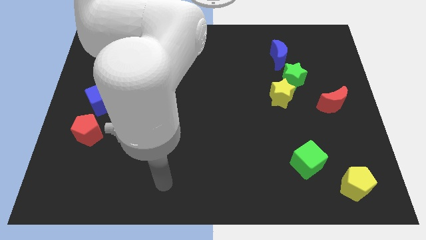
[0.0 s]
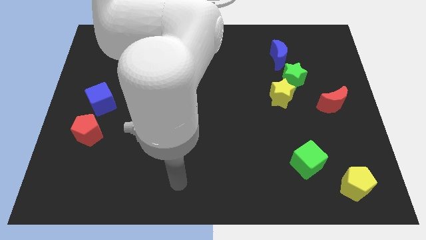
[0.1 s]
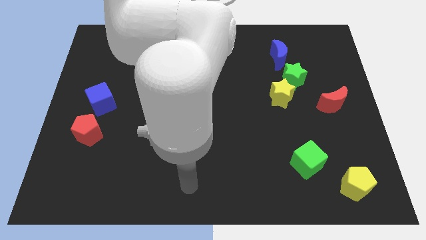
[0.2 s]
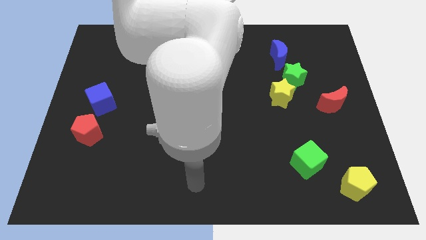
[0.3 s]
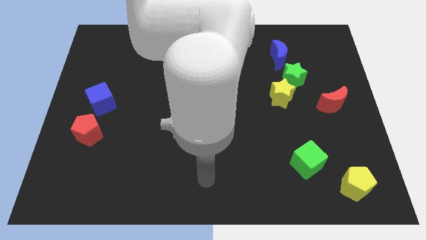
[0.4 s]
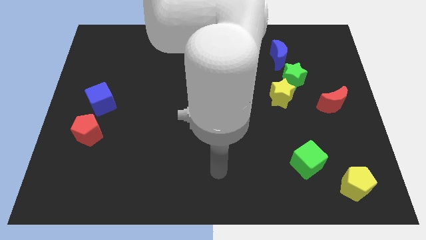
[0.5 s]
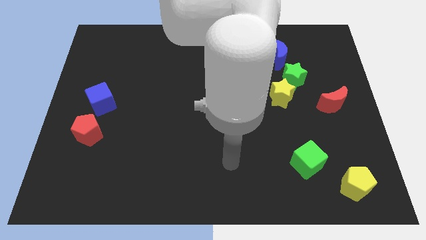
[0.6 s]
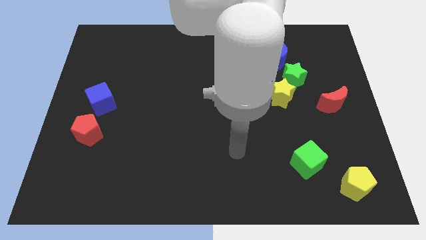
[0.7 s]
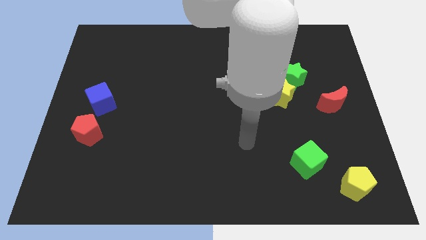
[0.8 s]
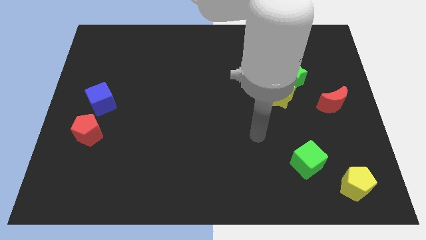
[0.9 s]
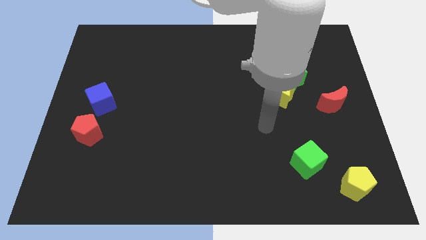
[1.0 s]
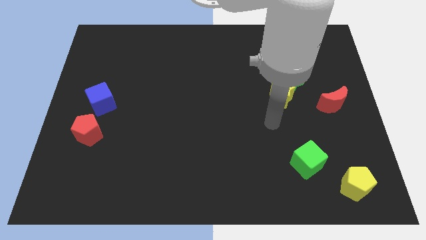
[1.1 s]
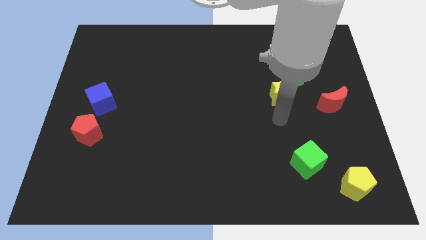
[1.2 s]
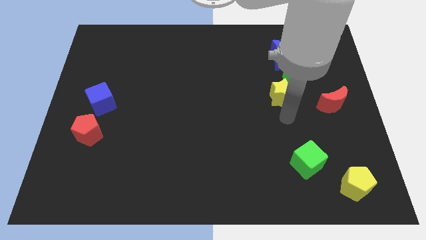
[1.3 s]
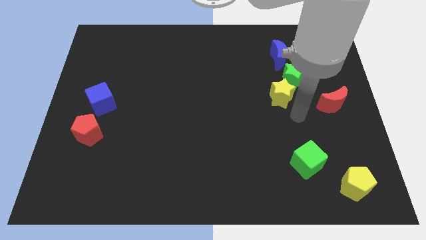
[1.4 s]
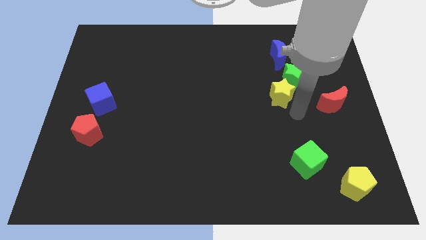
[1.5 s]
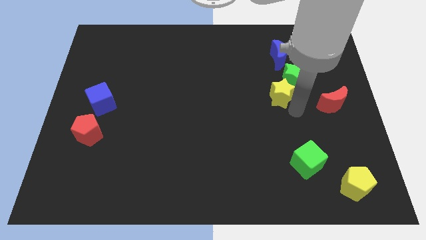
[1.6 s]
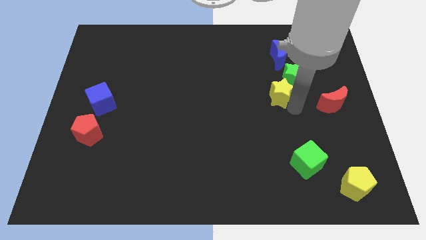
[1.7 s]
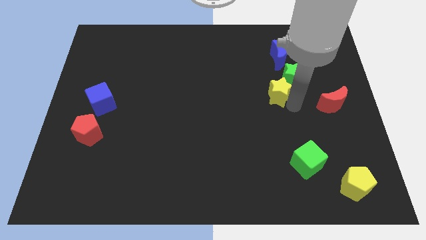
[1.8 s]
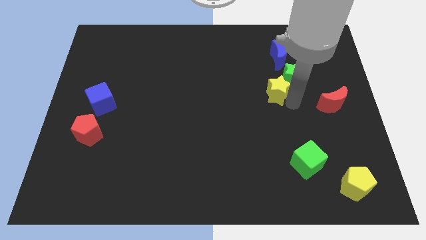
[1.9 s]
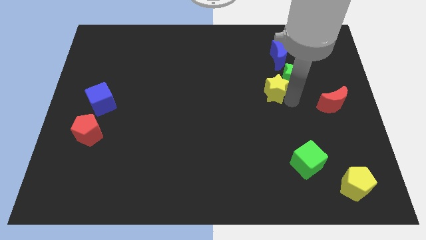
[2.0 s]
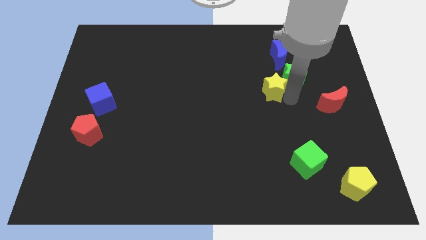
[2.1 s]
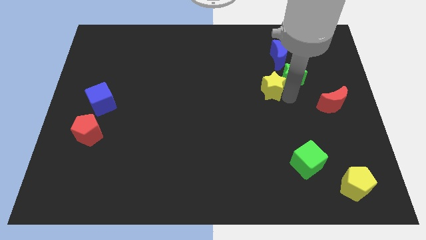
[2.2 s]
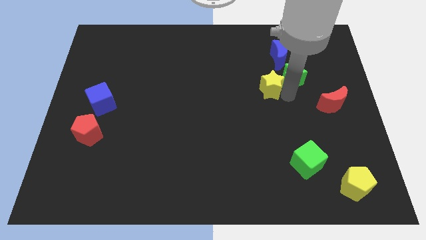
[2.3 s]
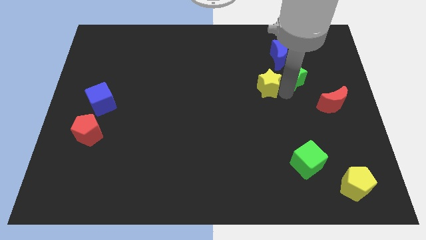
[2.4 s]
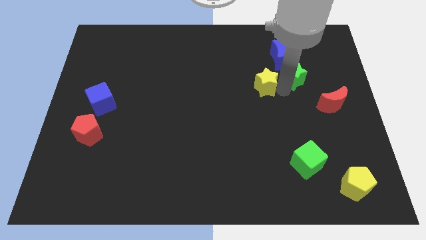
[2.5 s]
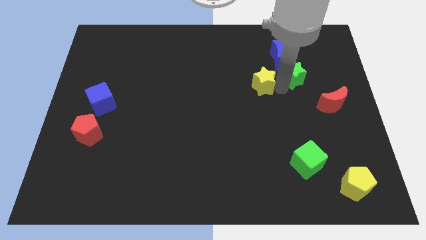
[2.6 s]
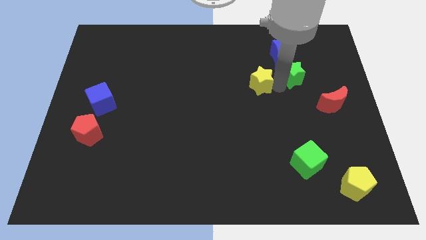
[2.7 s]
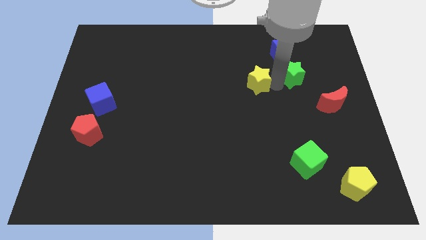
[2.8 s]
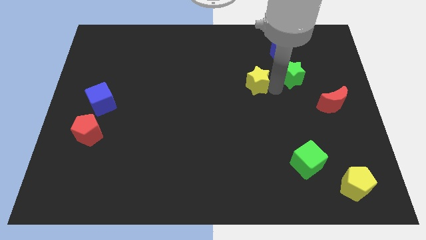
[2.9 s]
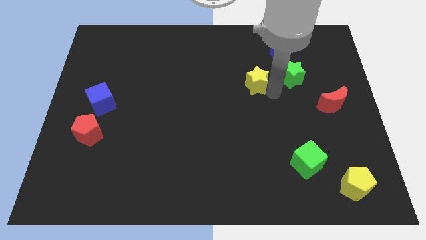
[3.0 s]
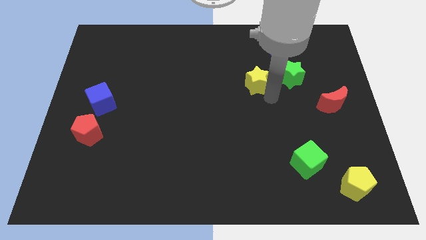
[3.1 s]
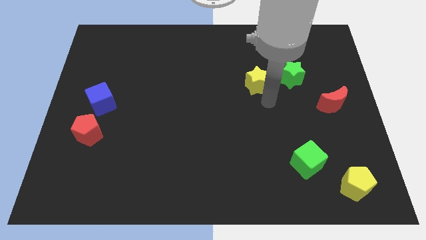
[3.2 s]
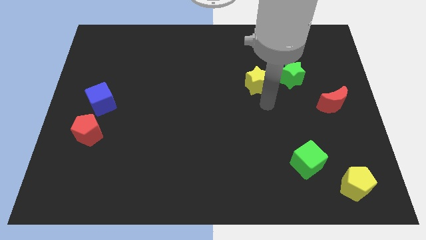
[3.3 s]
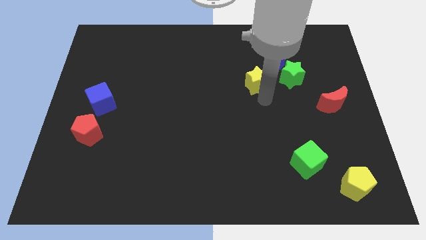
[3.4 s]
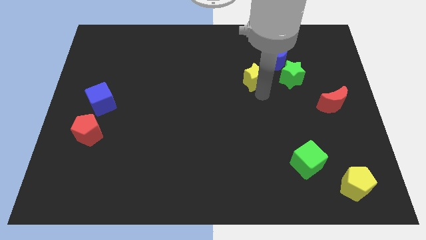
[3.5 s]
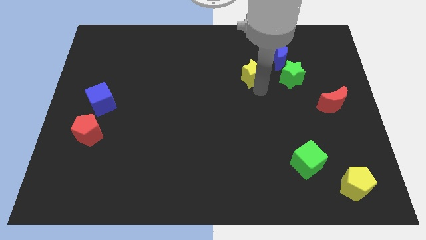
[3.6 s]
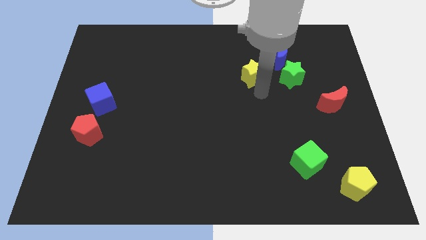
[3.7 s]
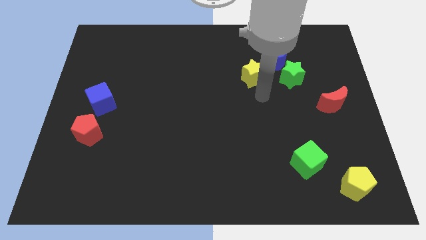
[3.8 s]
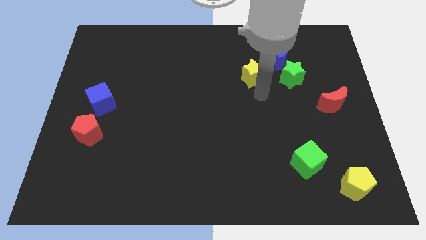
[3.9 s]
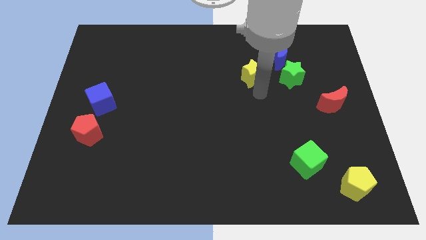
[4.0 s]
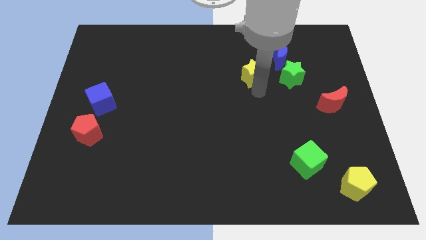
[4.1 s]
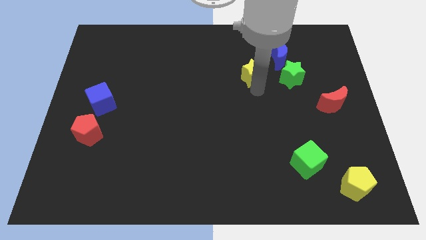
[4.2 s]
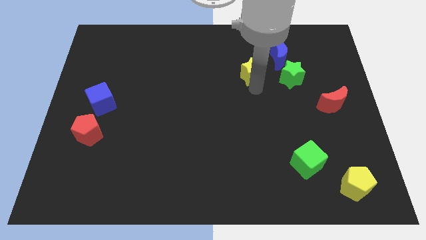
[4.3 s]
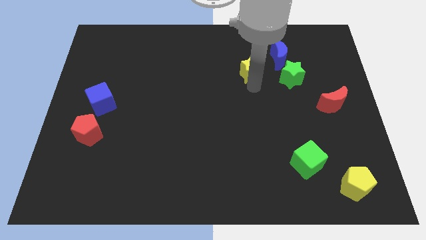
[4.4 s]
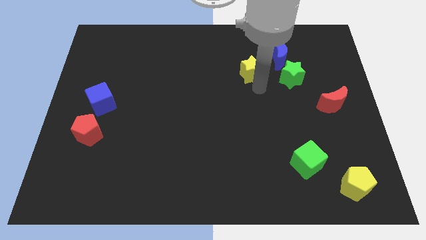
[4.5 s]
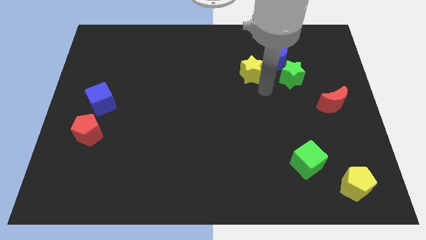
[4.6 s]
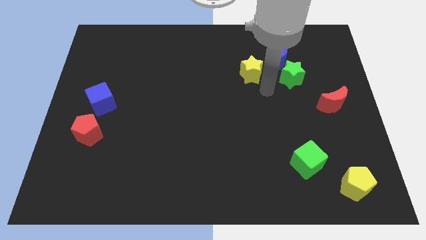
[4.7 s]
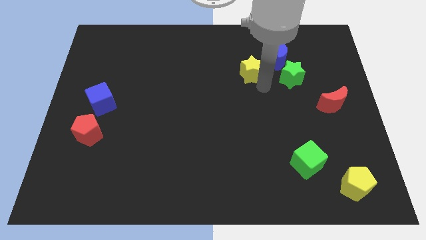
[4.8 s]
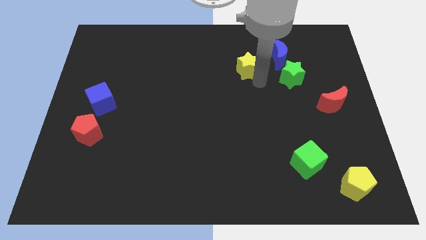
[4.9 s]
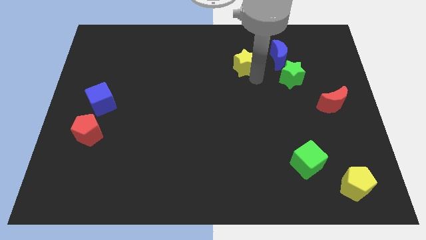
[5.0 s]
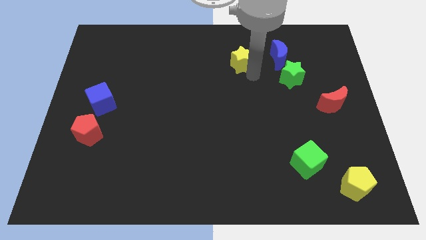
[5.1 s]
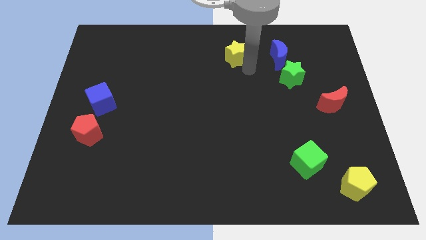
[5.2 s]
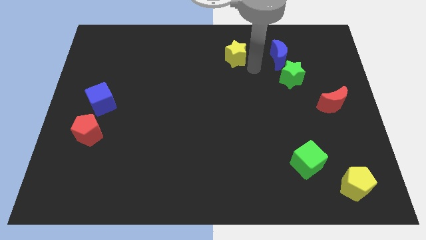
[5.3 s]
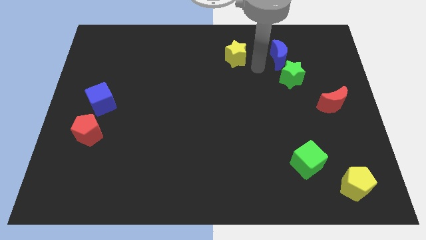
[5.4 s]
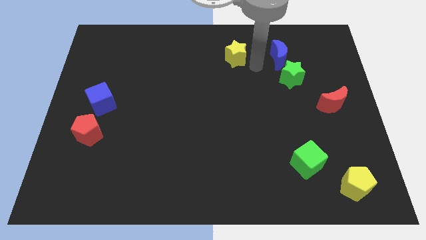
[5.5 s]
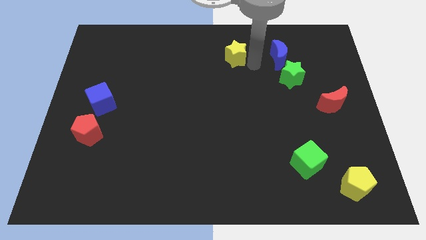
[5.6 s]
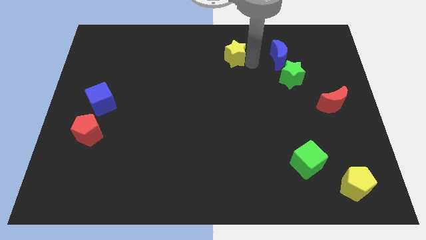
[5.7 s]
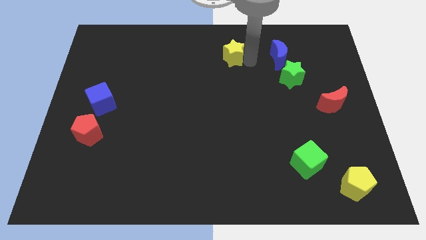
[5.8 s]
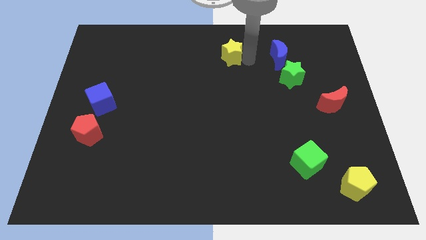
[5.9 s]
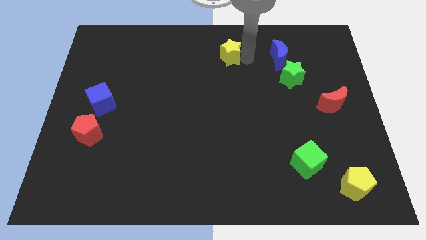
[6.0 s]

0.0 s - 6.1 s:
move the yellow star to the top
